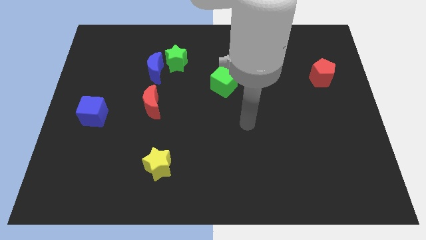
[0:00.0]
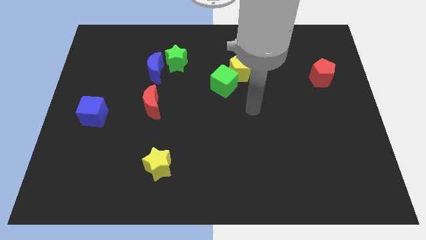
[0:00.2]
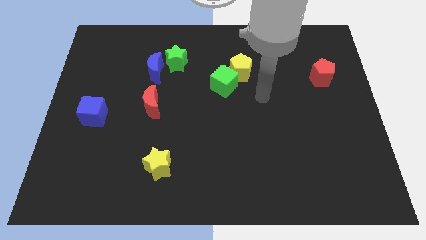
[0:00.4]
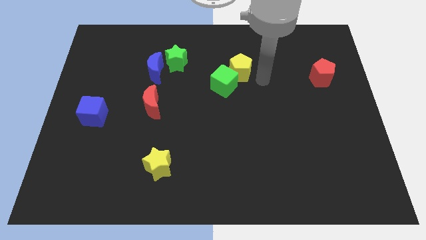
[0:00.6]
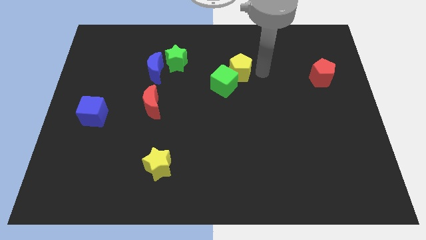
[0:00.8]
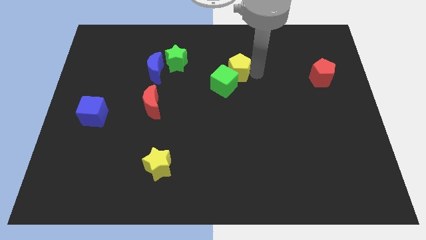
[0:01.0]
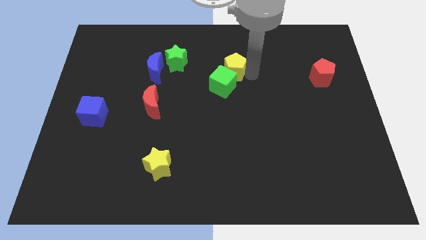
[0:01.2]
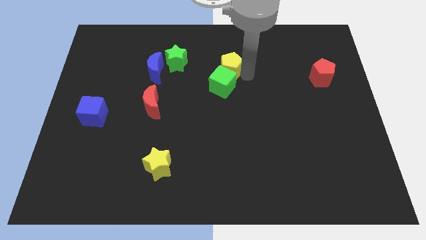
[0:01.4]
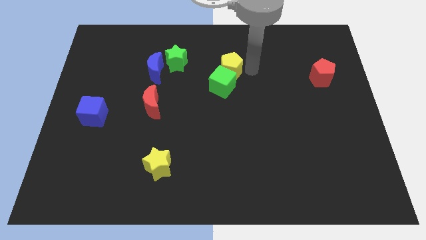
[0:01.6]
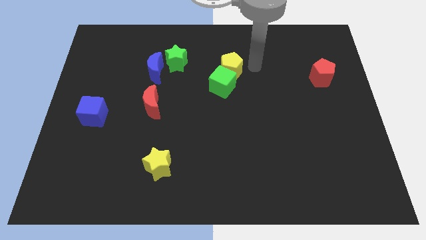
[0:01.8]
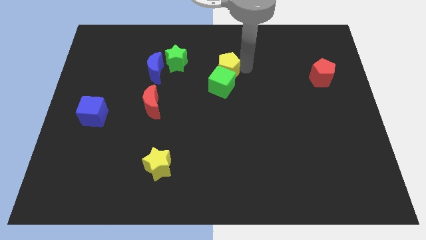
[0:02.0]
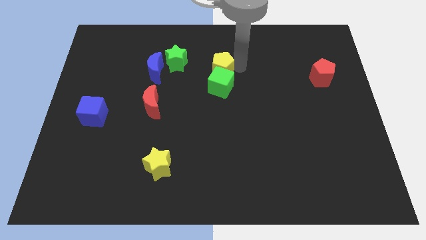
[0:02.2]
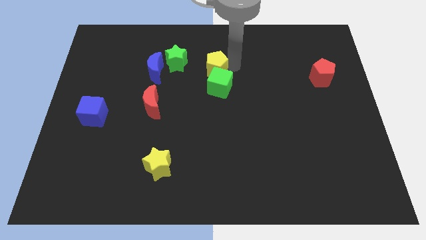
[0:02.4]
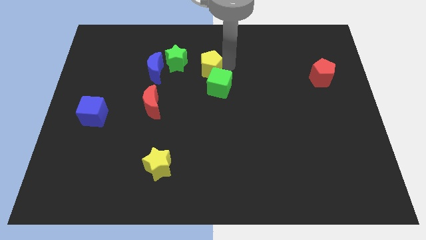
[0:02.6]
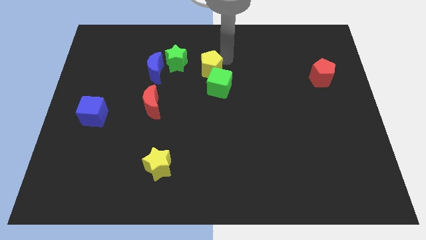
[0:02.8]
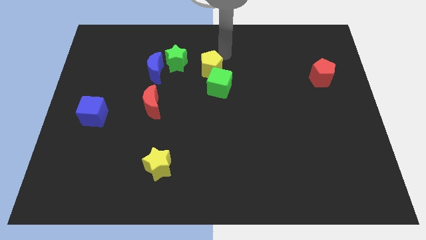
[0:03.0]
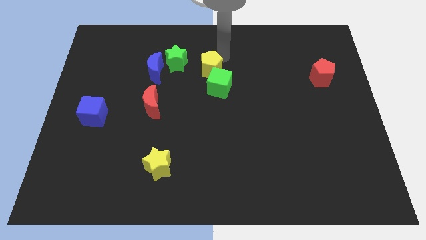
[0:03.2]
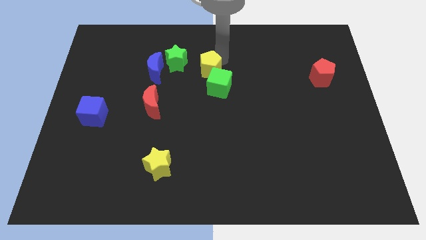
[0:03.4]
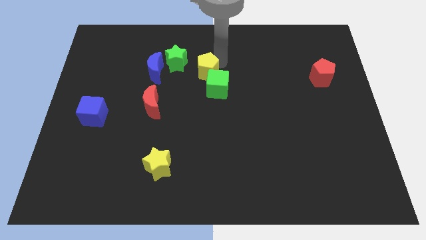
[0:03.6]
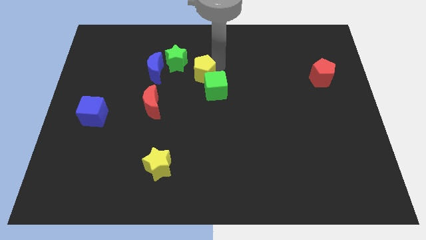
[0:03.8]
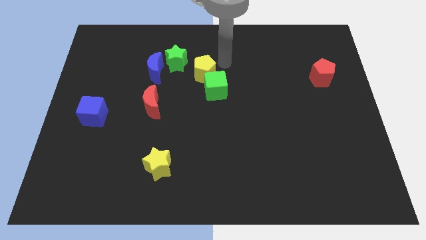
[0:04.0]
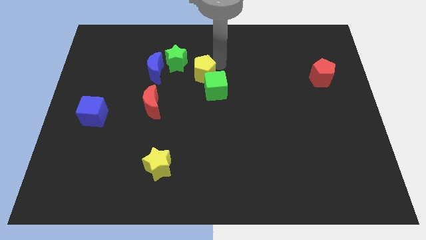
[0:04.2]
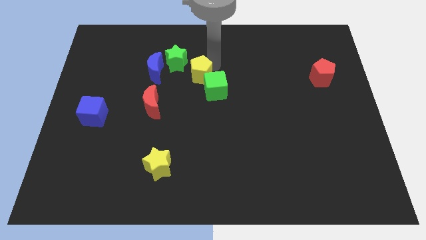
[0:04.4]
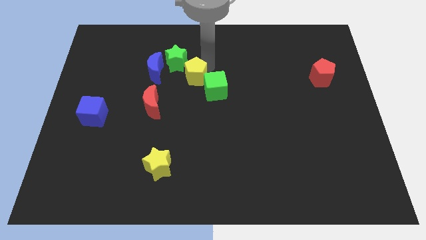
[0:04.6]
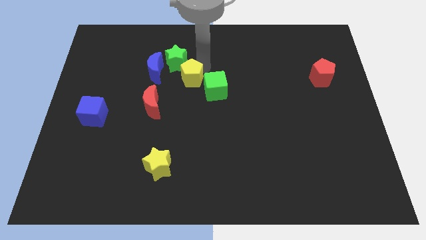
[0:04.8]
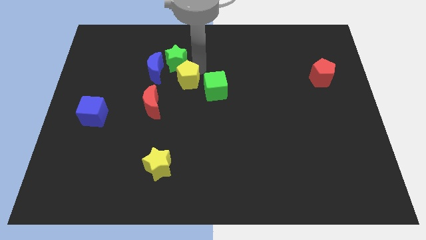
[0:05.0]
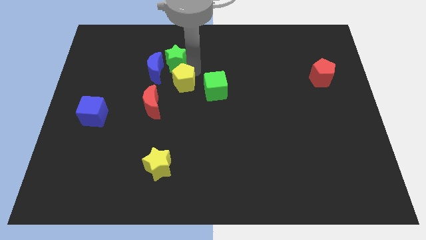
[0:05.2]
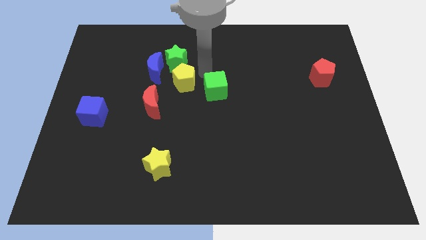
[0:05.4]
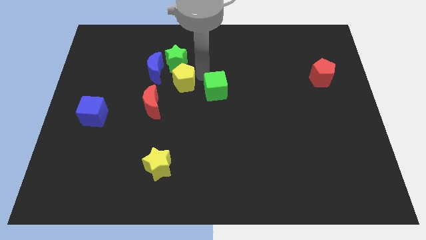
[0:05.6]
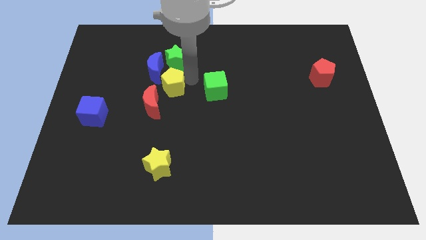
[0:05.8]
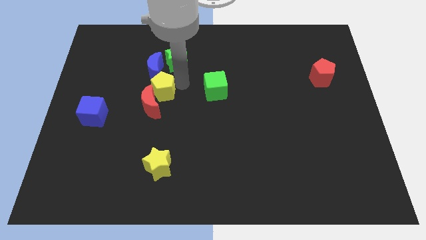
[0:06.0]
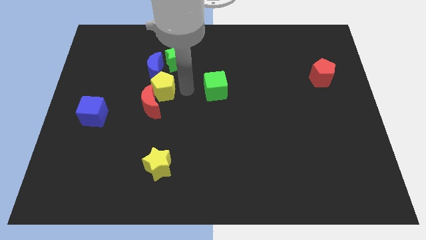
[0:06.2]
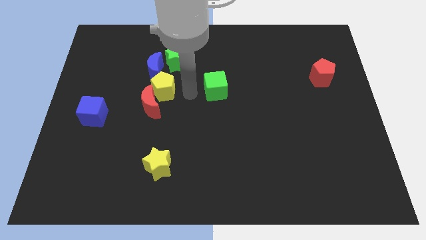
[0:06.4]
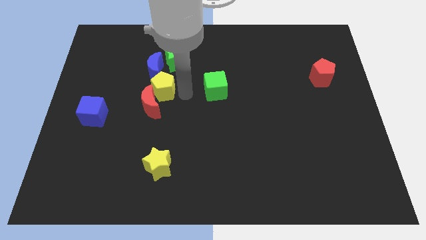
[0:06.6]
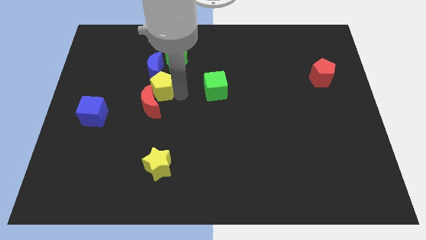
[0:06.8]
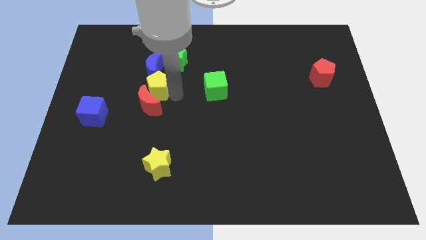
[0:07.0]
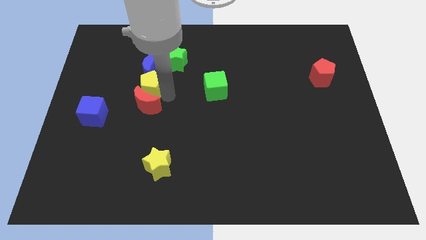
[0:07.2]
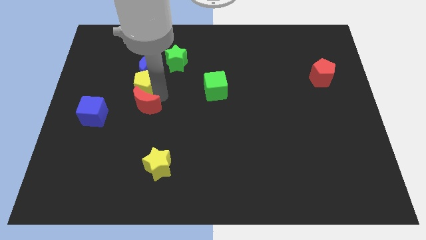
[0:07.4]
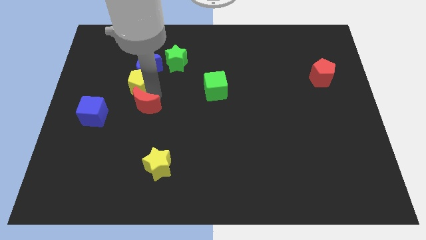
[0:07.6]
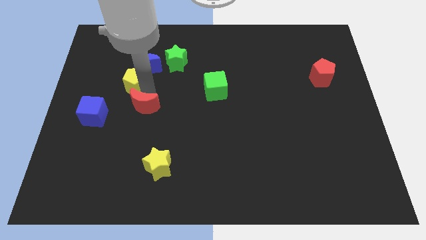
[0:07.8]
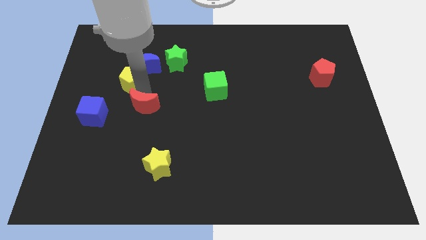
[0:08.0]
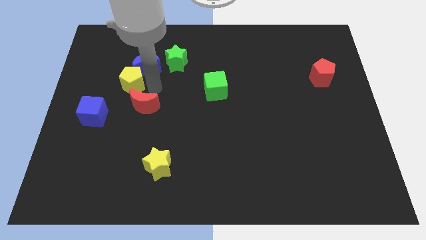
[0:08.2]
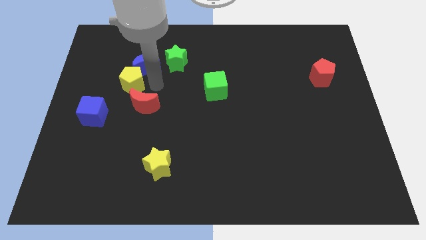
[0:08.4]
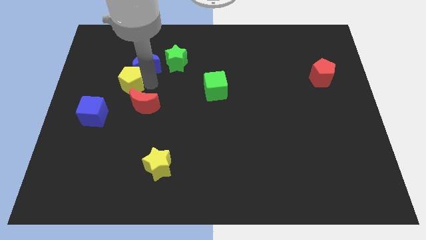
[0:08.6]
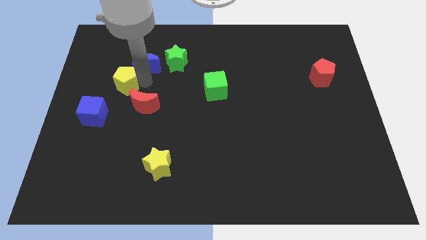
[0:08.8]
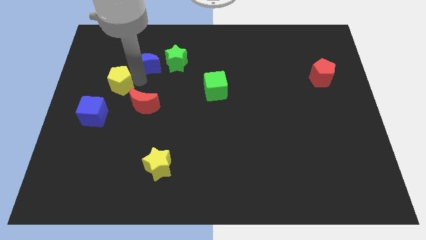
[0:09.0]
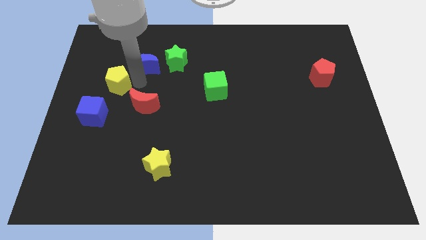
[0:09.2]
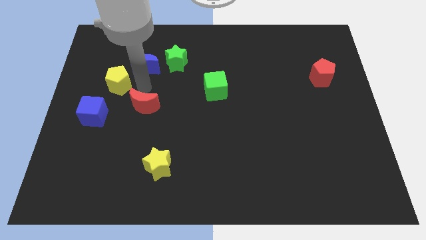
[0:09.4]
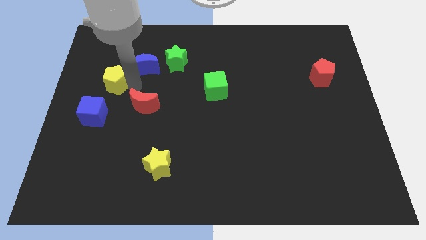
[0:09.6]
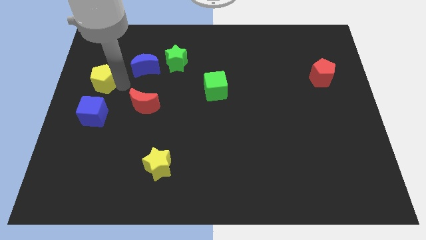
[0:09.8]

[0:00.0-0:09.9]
move the yellow pentagon to the left side of the board

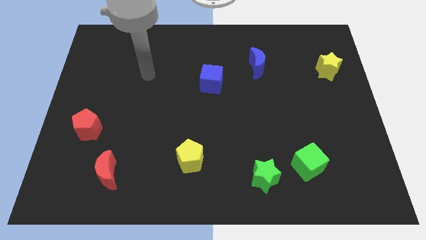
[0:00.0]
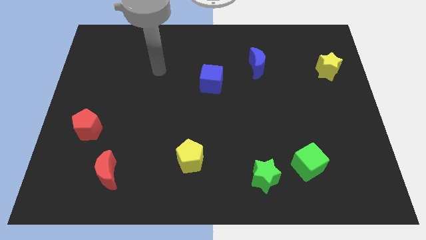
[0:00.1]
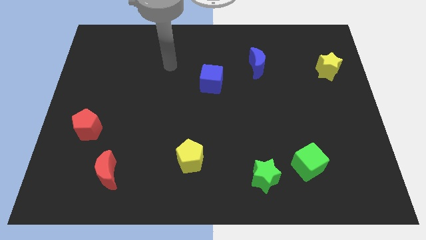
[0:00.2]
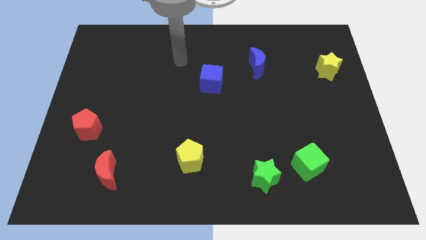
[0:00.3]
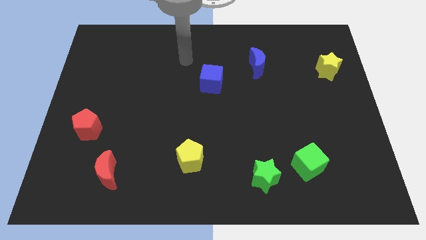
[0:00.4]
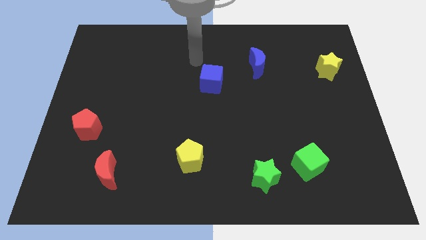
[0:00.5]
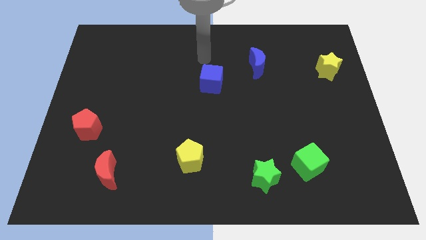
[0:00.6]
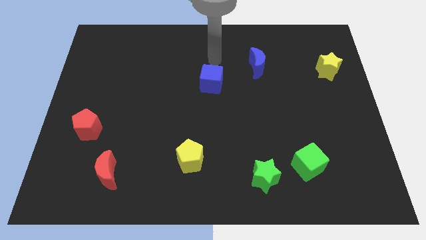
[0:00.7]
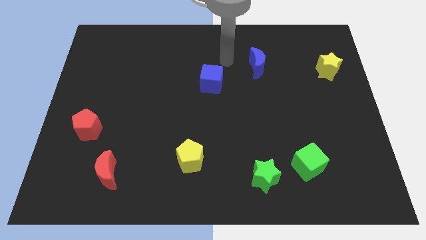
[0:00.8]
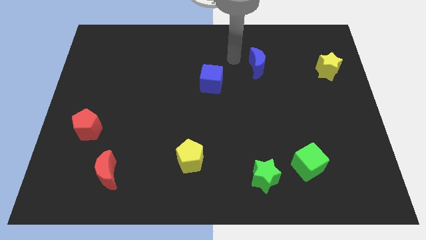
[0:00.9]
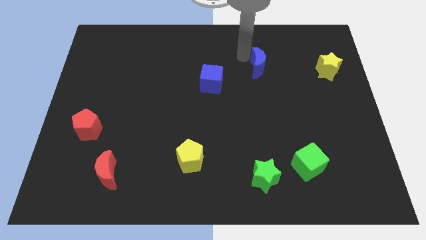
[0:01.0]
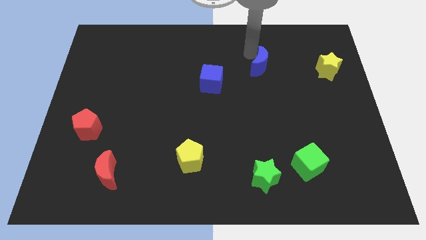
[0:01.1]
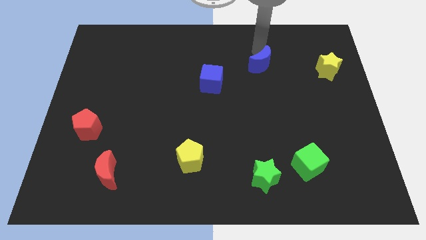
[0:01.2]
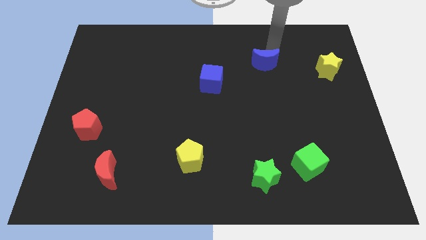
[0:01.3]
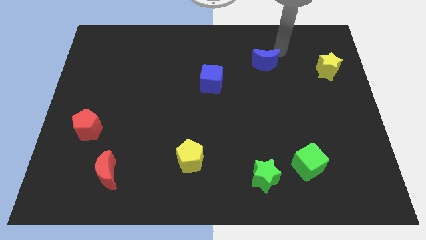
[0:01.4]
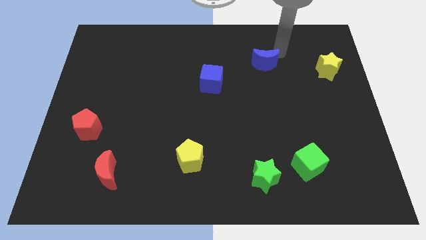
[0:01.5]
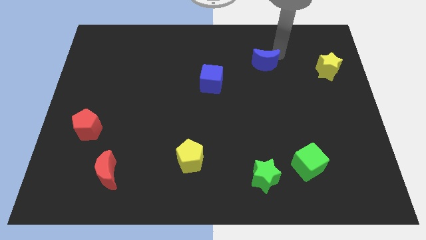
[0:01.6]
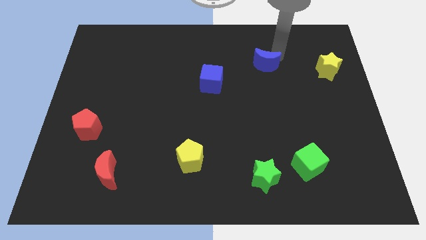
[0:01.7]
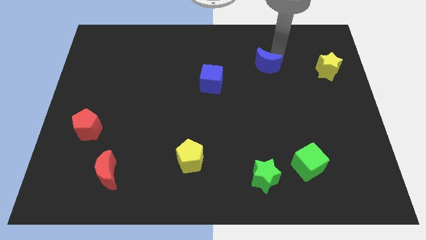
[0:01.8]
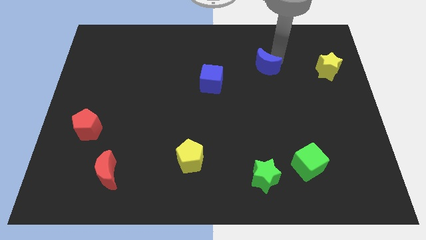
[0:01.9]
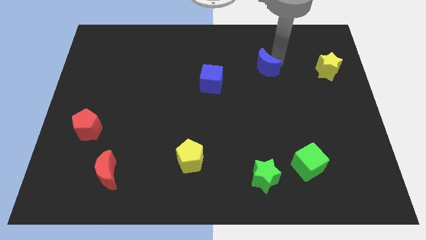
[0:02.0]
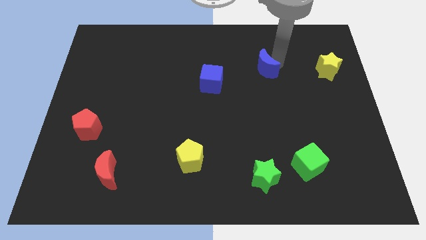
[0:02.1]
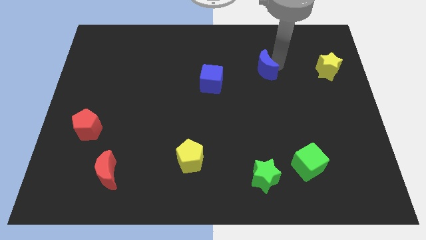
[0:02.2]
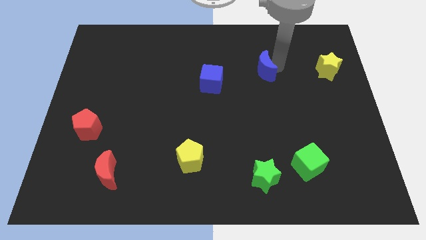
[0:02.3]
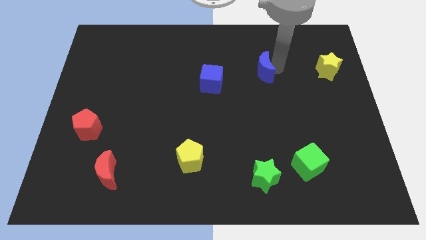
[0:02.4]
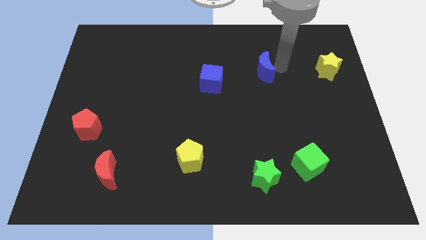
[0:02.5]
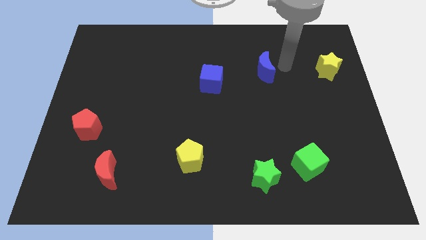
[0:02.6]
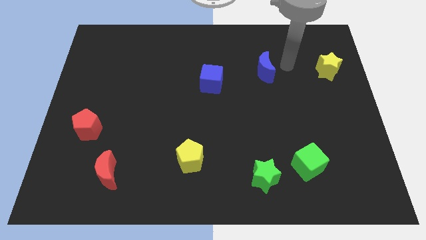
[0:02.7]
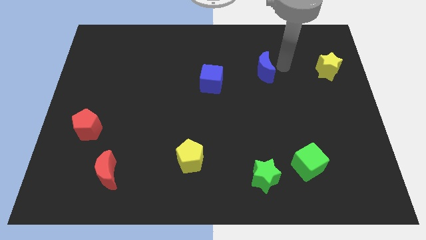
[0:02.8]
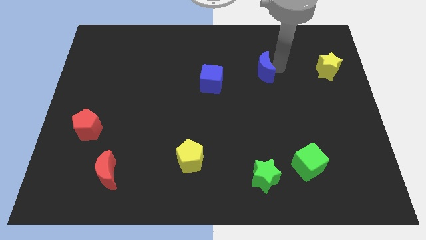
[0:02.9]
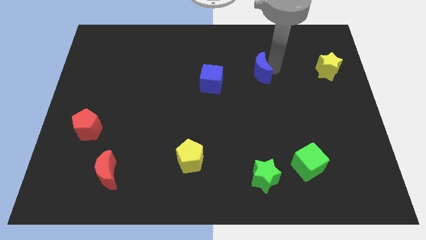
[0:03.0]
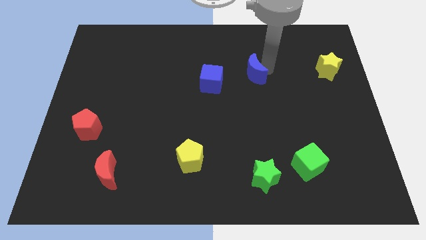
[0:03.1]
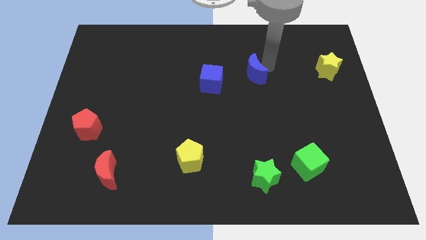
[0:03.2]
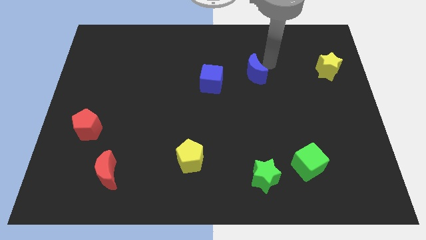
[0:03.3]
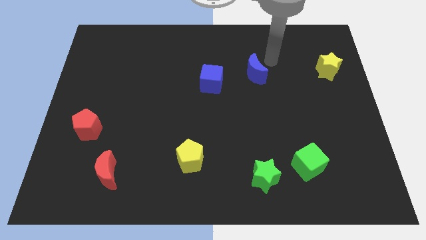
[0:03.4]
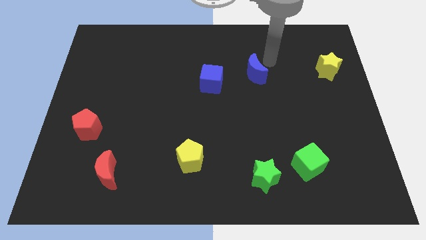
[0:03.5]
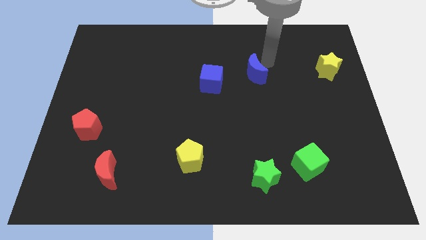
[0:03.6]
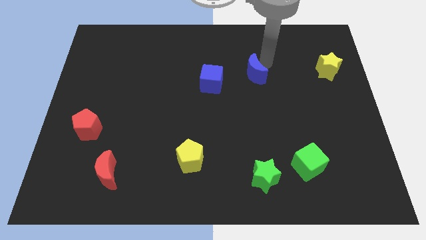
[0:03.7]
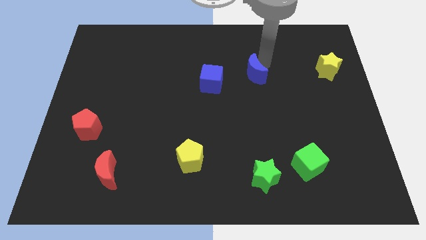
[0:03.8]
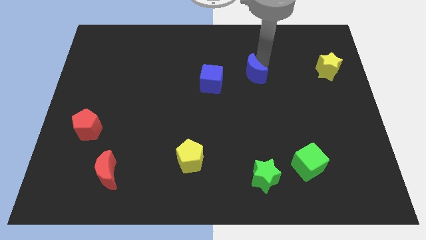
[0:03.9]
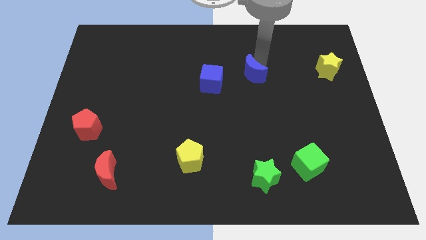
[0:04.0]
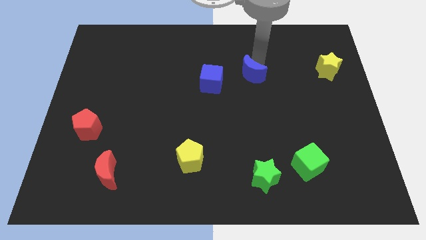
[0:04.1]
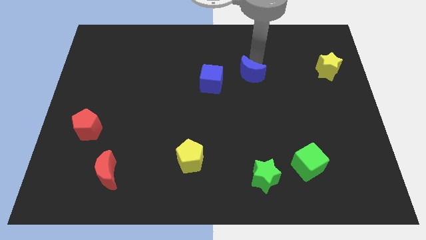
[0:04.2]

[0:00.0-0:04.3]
move the blue moon to the center
